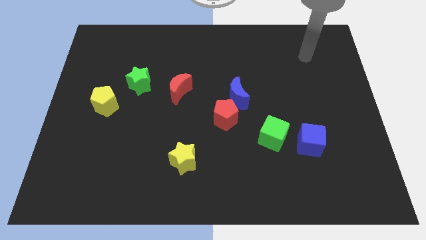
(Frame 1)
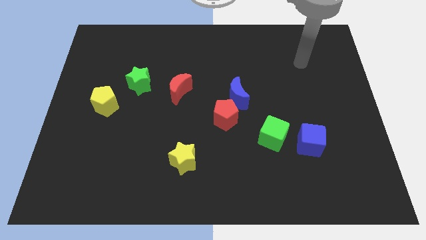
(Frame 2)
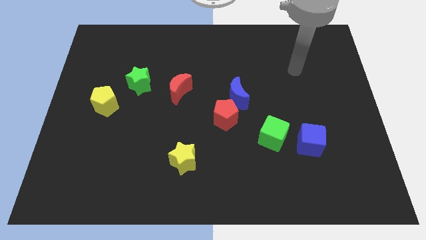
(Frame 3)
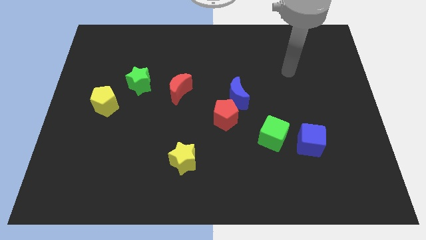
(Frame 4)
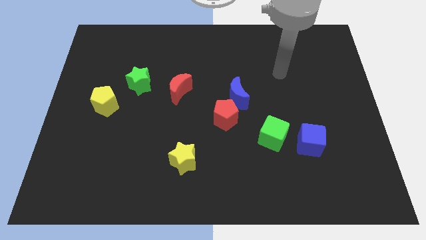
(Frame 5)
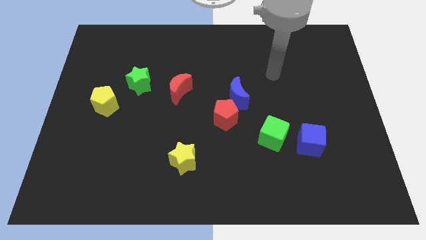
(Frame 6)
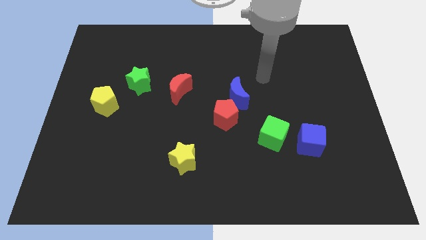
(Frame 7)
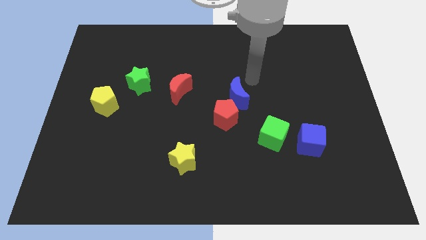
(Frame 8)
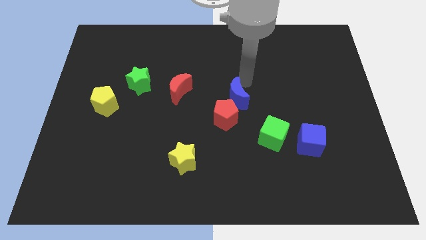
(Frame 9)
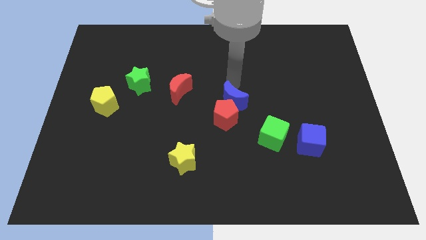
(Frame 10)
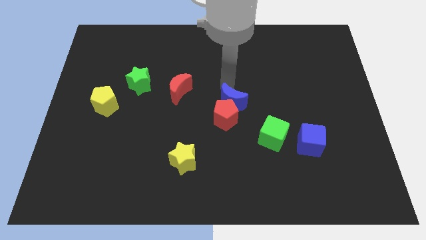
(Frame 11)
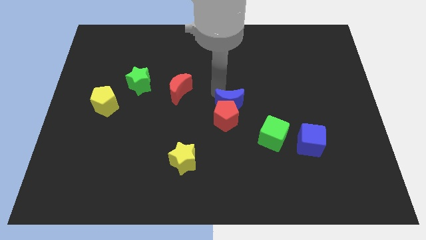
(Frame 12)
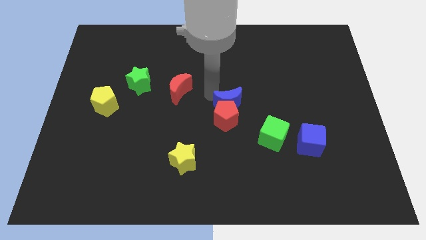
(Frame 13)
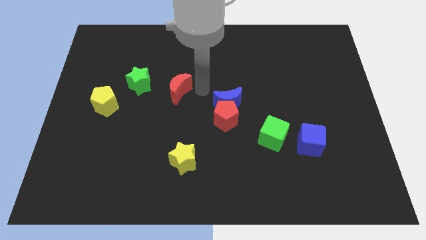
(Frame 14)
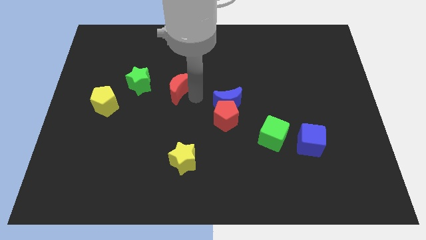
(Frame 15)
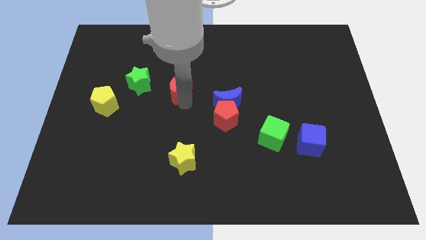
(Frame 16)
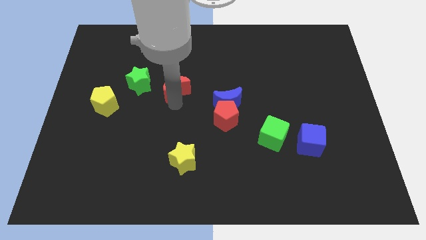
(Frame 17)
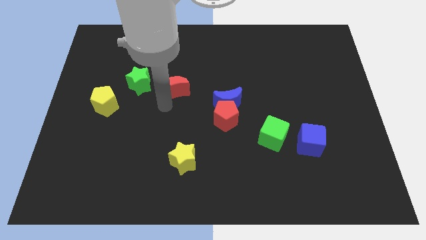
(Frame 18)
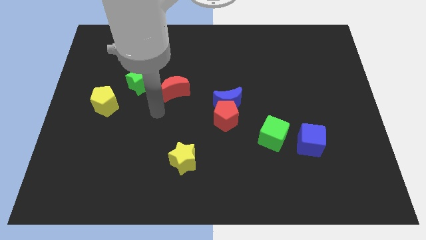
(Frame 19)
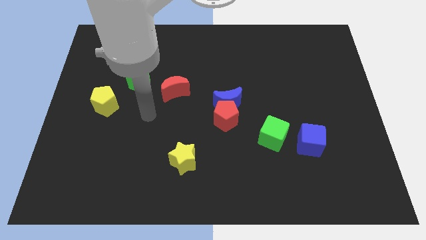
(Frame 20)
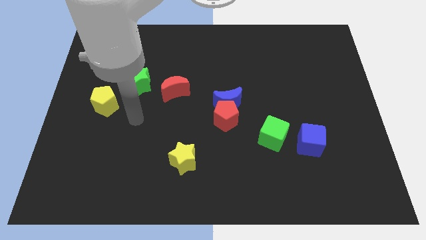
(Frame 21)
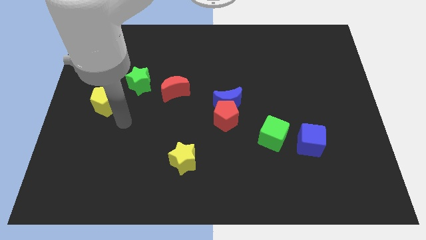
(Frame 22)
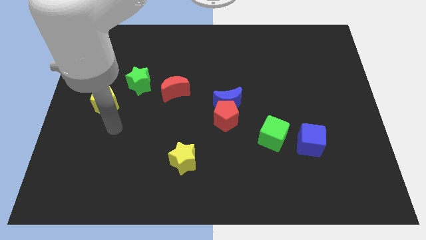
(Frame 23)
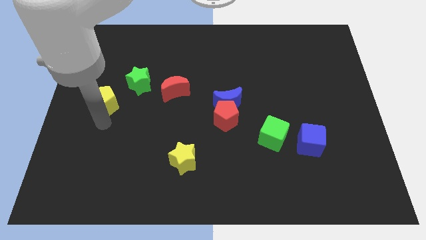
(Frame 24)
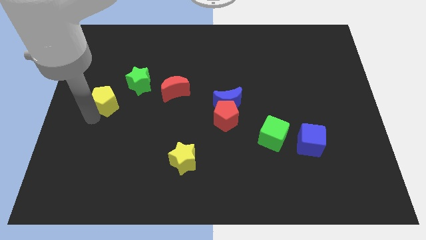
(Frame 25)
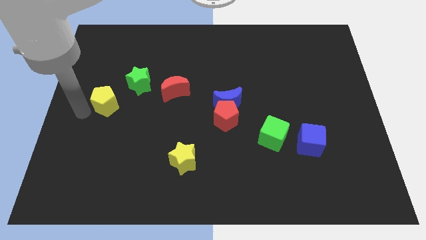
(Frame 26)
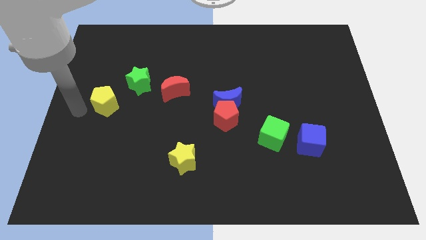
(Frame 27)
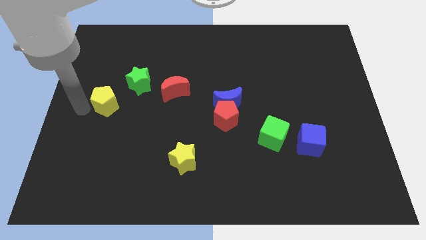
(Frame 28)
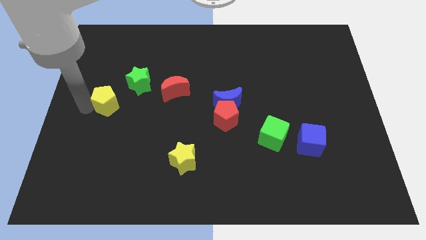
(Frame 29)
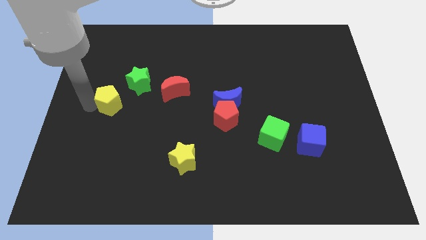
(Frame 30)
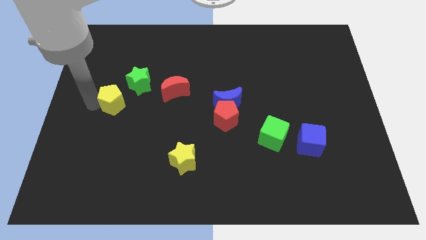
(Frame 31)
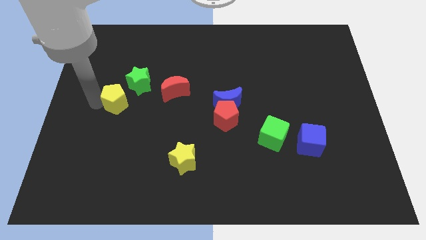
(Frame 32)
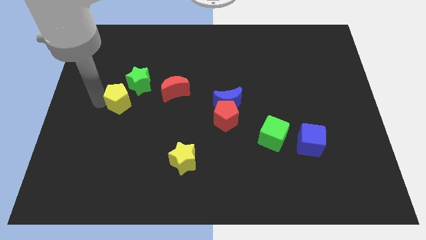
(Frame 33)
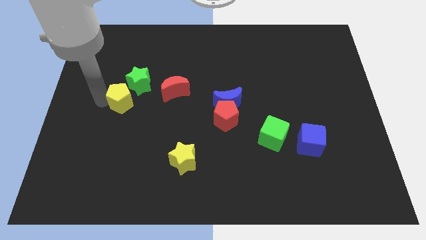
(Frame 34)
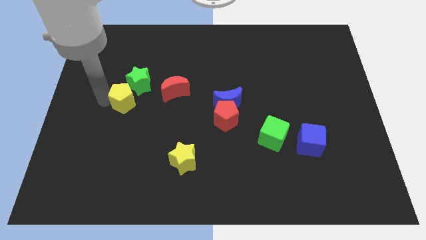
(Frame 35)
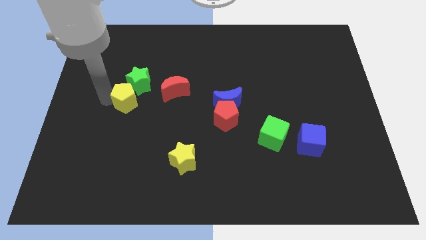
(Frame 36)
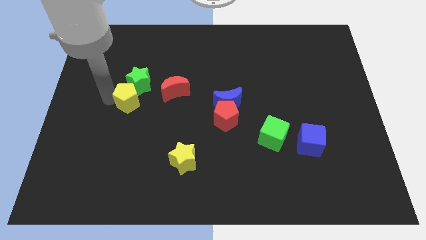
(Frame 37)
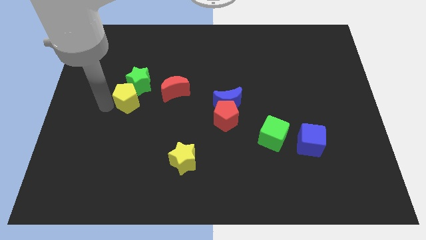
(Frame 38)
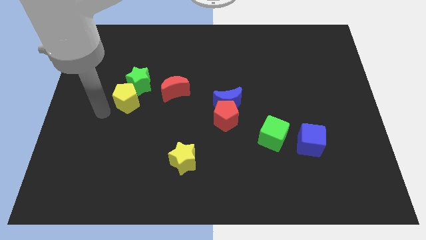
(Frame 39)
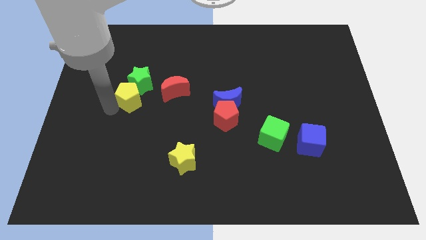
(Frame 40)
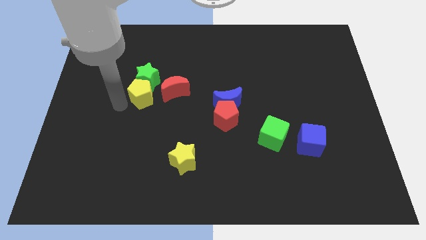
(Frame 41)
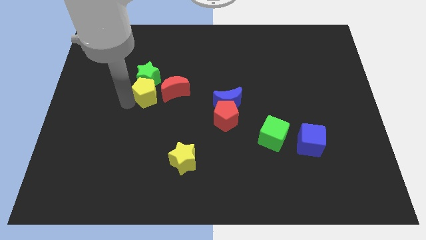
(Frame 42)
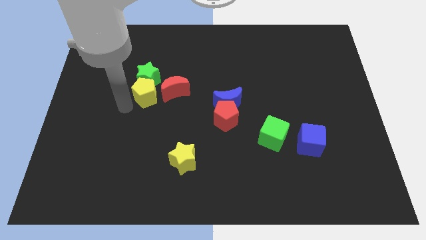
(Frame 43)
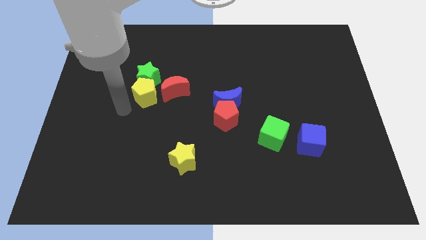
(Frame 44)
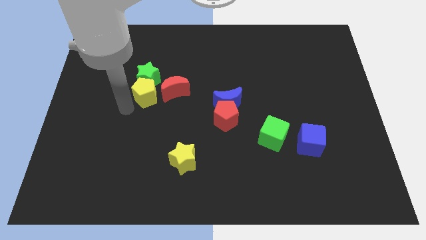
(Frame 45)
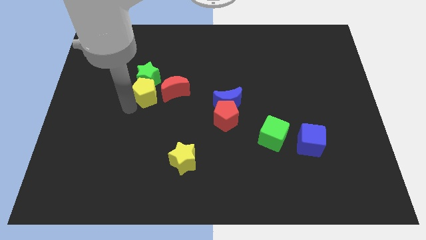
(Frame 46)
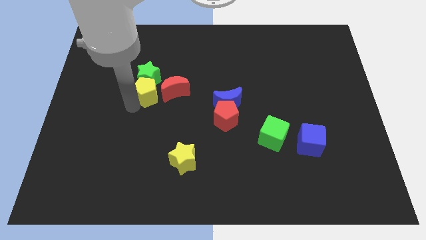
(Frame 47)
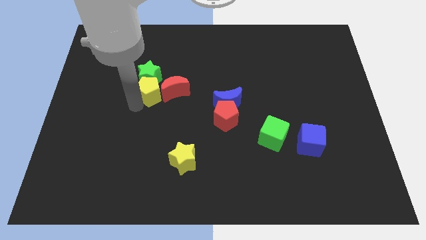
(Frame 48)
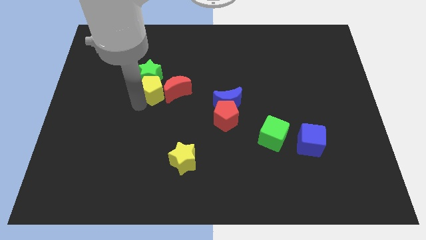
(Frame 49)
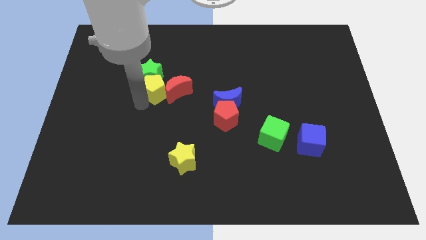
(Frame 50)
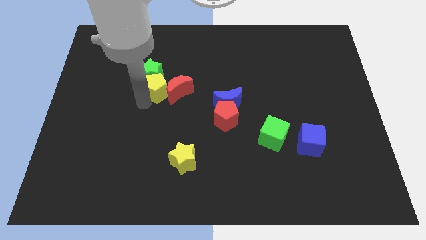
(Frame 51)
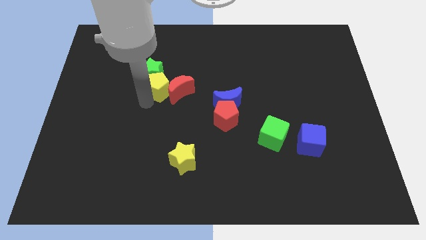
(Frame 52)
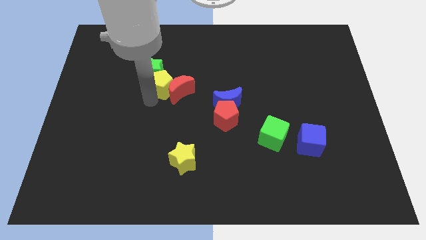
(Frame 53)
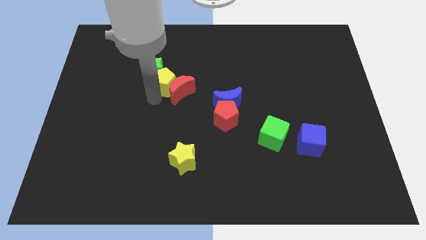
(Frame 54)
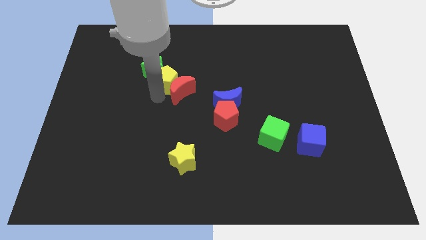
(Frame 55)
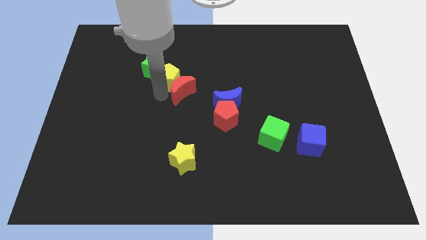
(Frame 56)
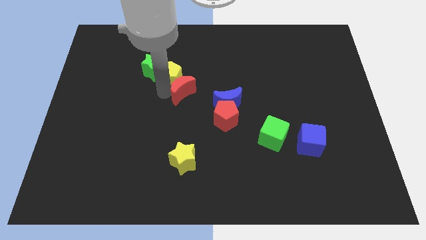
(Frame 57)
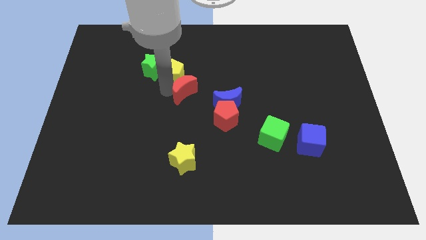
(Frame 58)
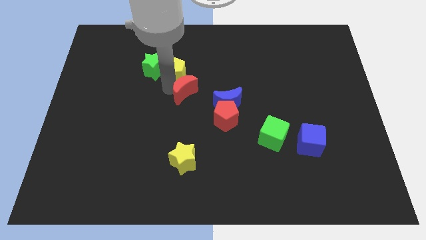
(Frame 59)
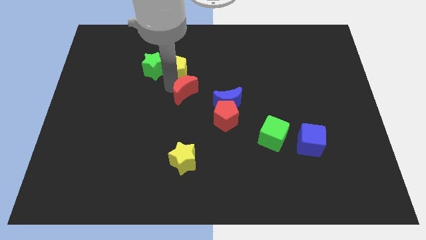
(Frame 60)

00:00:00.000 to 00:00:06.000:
push the yellow pentagon to the top right side of the green star

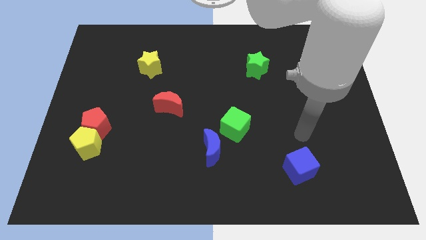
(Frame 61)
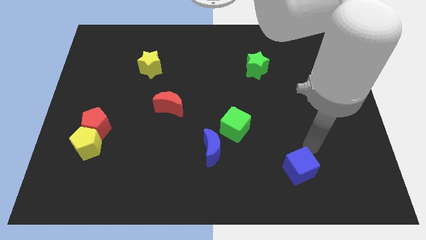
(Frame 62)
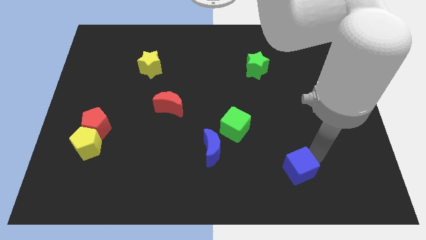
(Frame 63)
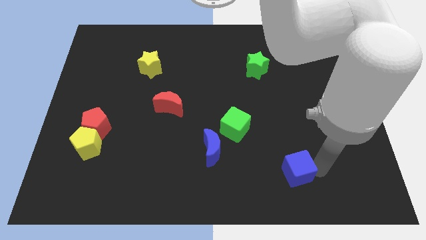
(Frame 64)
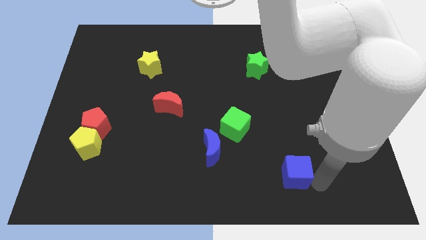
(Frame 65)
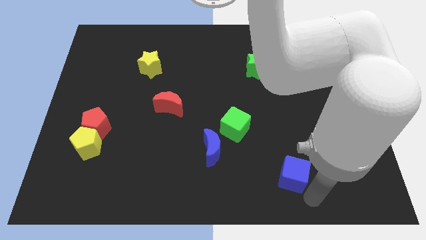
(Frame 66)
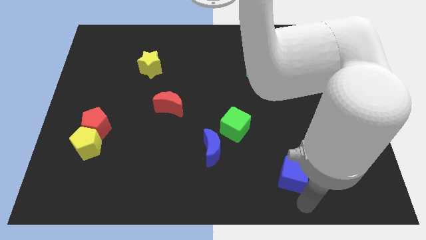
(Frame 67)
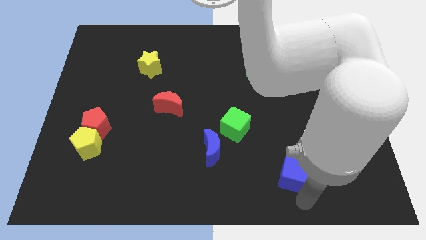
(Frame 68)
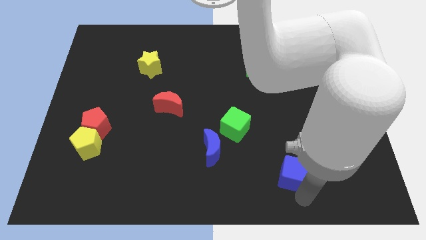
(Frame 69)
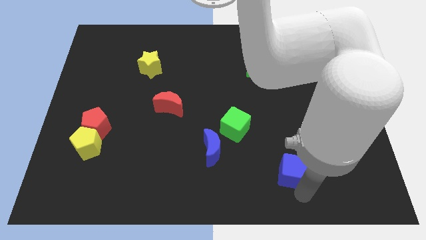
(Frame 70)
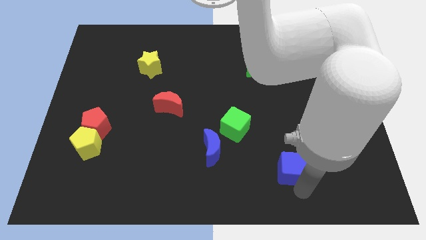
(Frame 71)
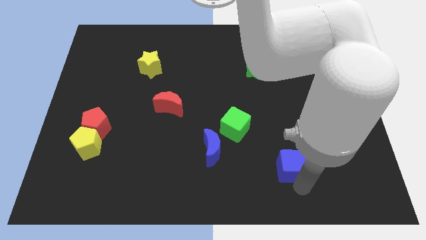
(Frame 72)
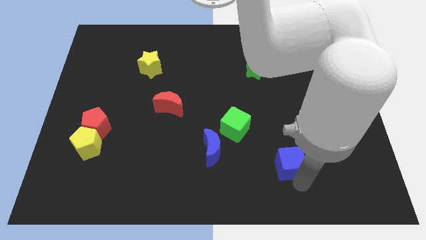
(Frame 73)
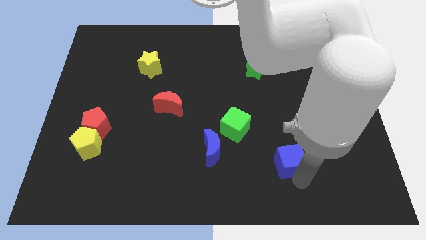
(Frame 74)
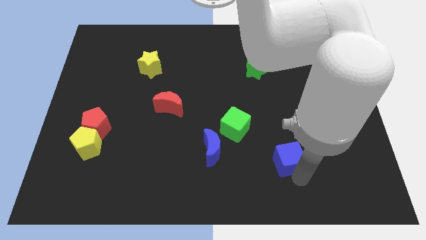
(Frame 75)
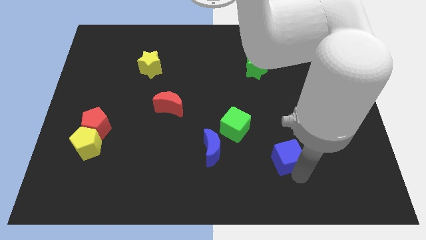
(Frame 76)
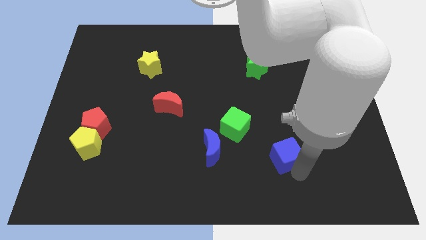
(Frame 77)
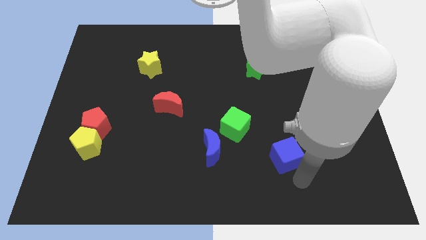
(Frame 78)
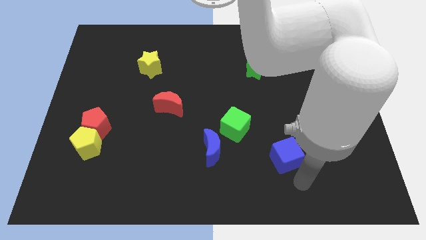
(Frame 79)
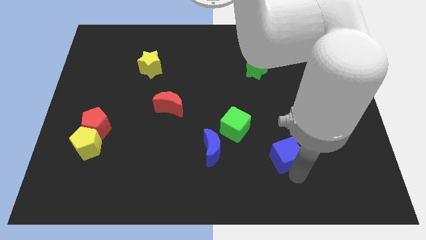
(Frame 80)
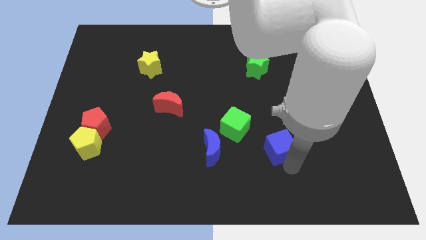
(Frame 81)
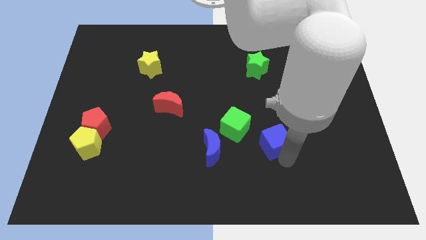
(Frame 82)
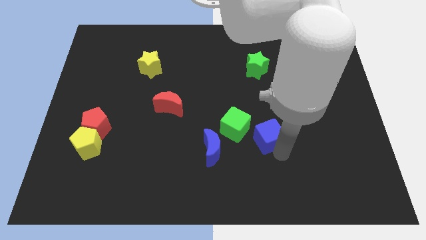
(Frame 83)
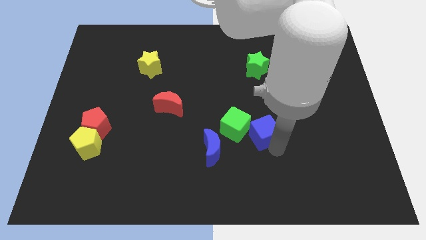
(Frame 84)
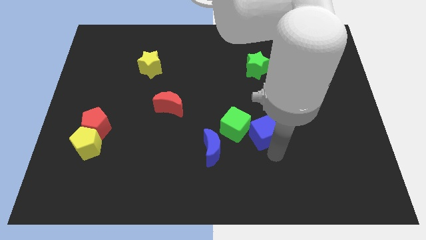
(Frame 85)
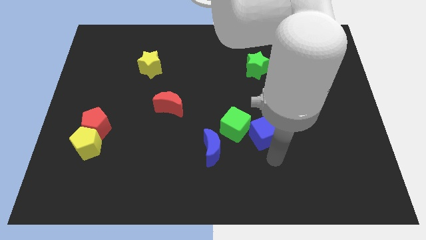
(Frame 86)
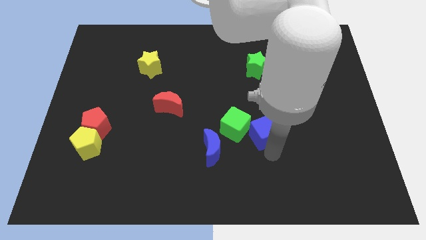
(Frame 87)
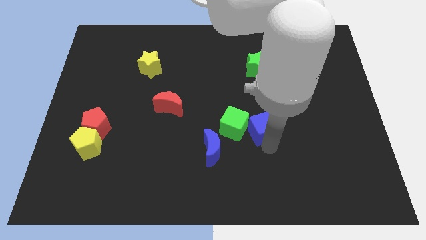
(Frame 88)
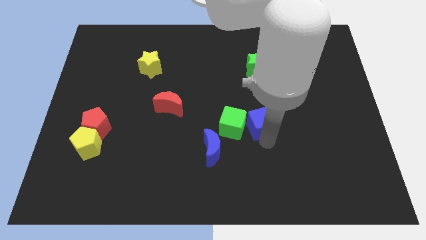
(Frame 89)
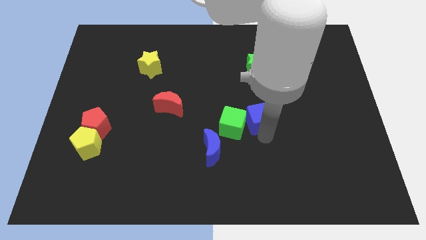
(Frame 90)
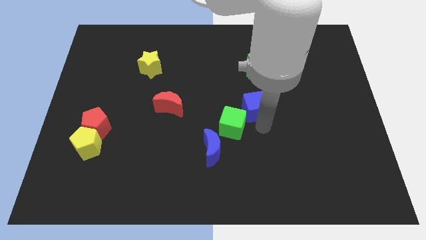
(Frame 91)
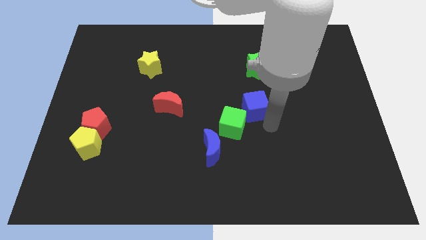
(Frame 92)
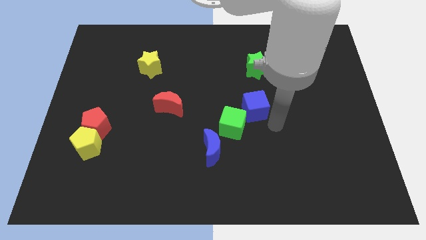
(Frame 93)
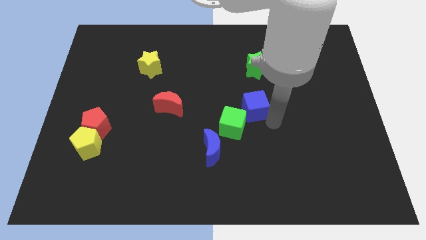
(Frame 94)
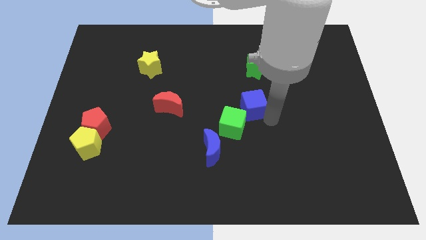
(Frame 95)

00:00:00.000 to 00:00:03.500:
move the blue cube above the green cube
